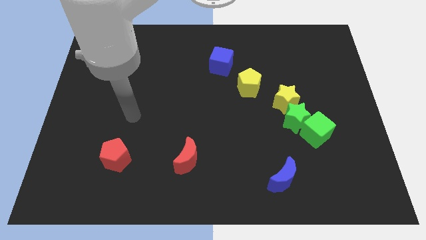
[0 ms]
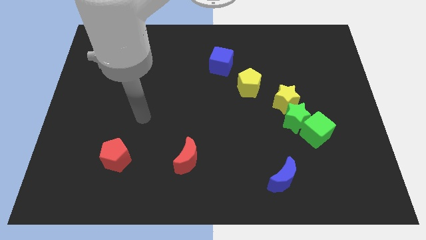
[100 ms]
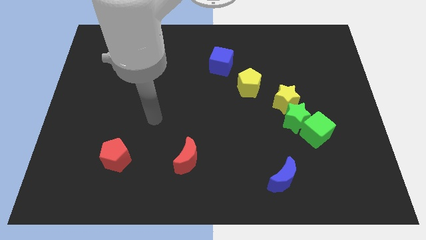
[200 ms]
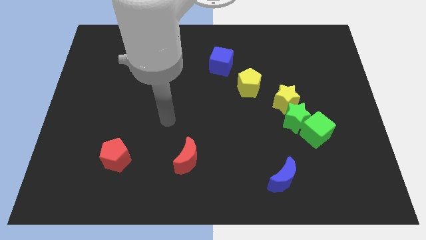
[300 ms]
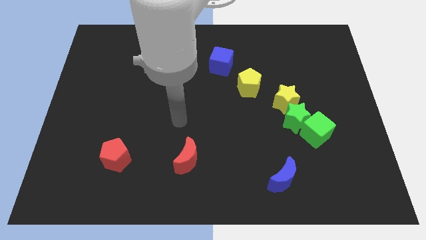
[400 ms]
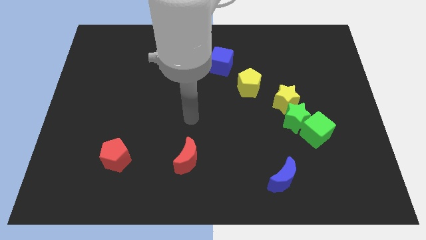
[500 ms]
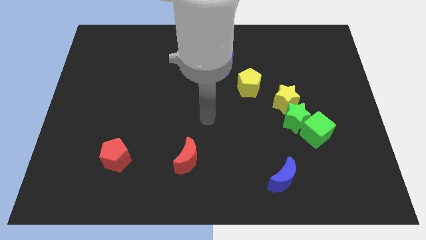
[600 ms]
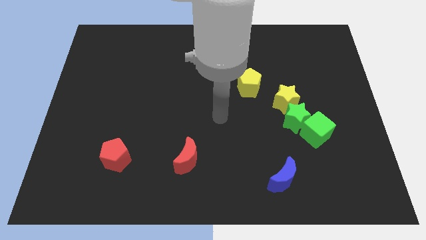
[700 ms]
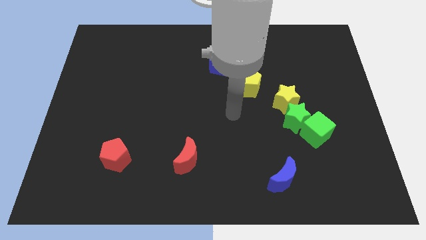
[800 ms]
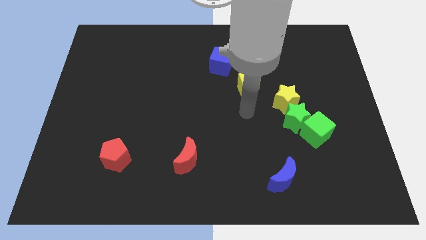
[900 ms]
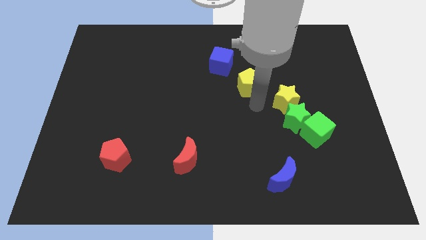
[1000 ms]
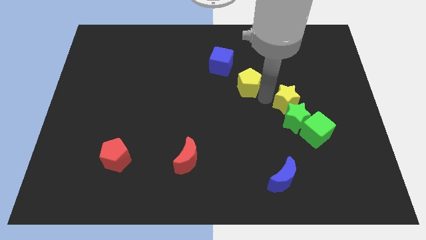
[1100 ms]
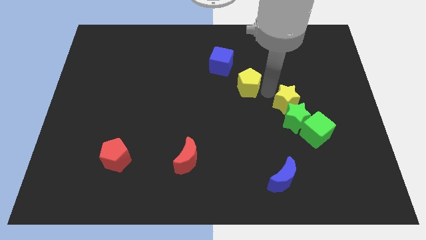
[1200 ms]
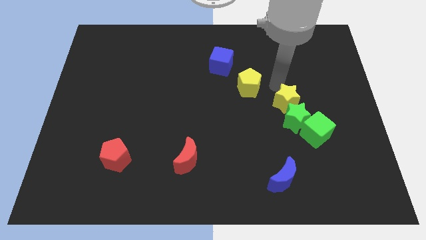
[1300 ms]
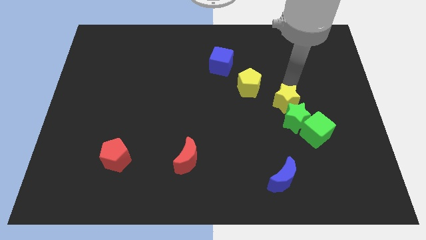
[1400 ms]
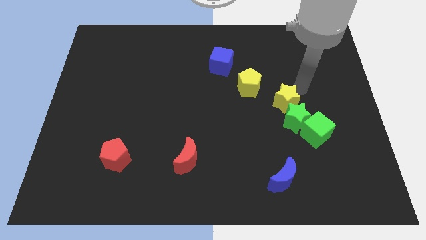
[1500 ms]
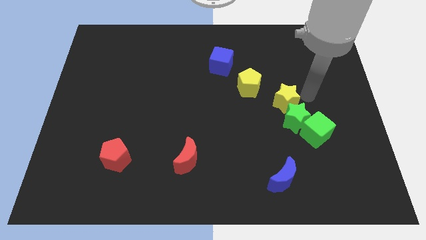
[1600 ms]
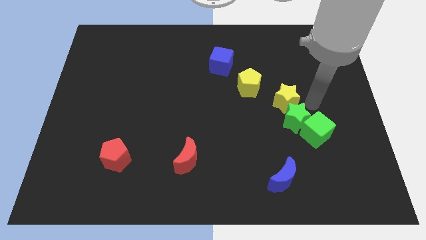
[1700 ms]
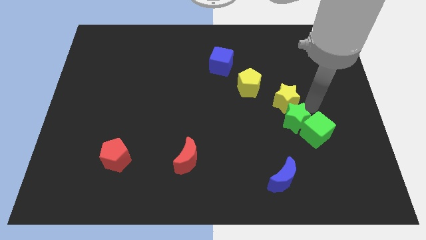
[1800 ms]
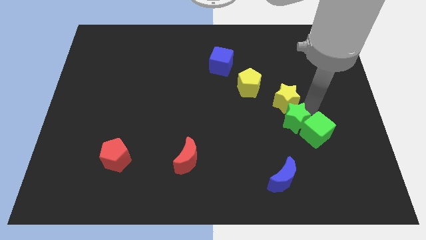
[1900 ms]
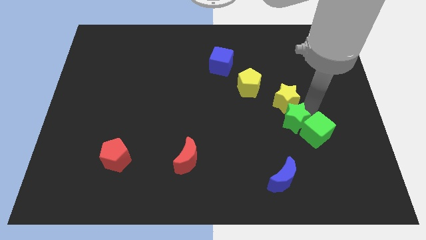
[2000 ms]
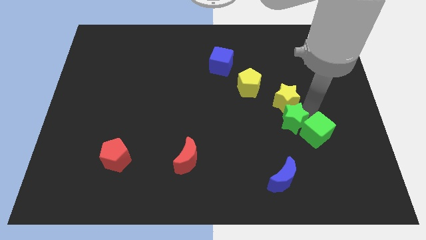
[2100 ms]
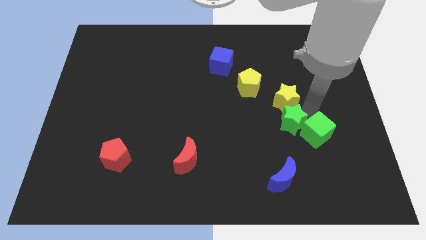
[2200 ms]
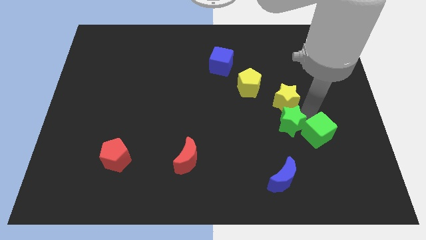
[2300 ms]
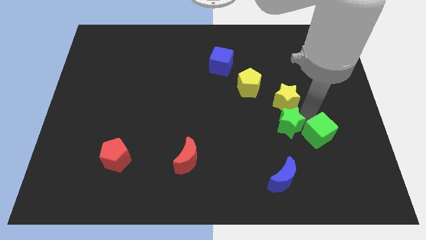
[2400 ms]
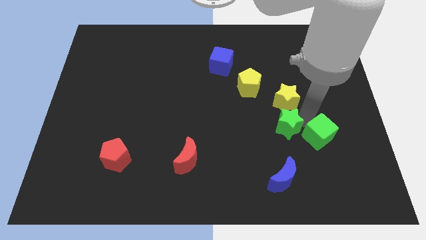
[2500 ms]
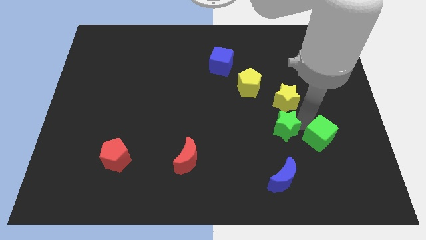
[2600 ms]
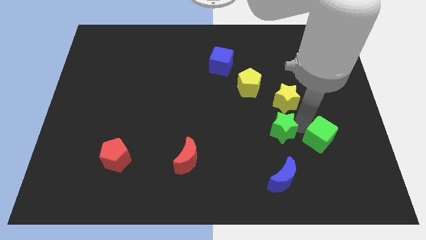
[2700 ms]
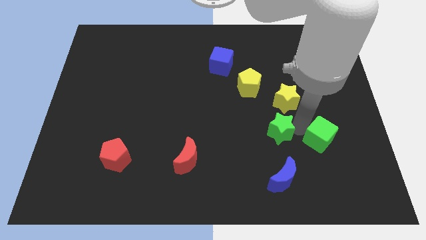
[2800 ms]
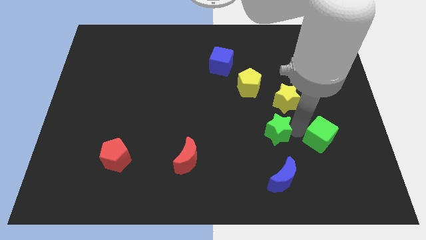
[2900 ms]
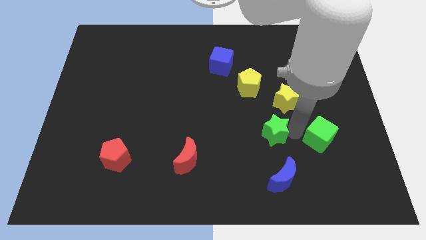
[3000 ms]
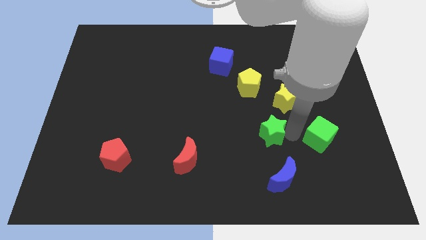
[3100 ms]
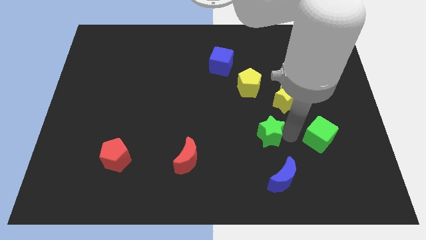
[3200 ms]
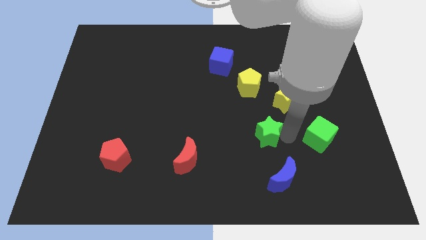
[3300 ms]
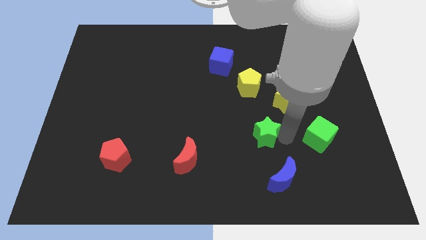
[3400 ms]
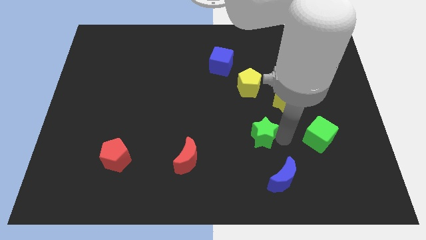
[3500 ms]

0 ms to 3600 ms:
move the green star away from the green cube and yellow star

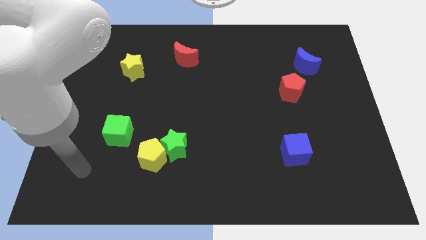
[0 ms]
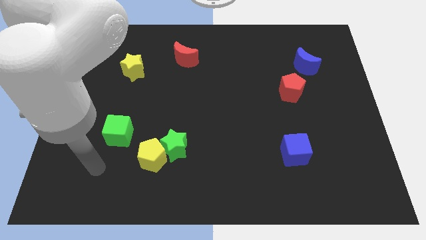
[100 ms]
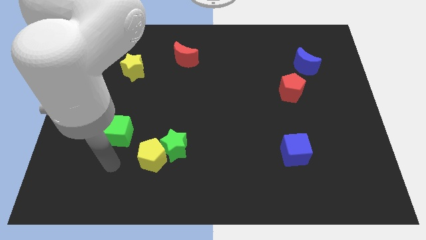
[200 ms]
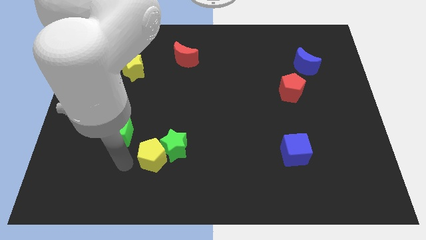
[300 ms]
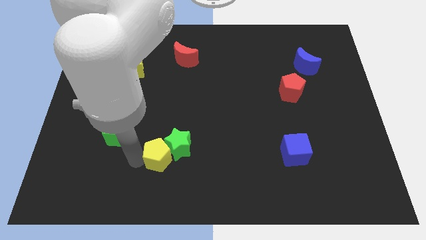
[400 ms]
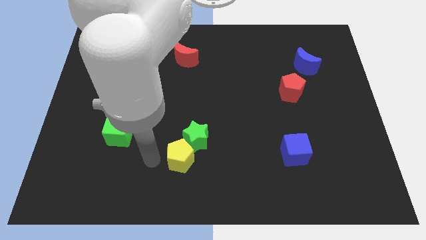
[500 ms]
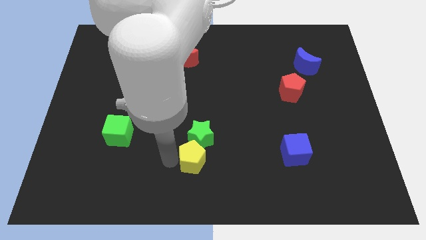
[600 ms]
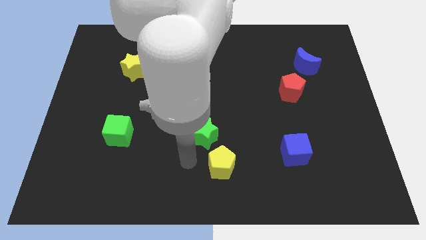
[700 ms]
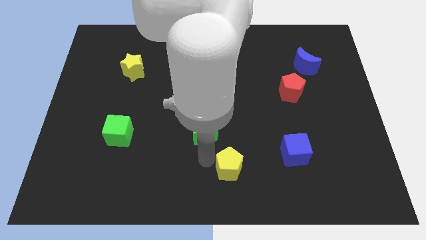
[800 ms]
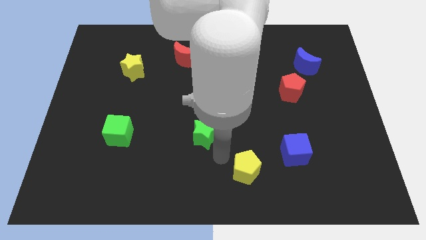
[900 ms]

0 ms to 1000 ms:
separate the green star from the yellow pentagon

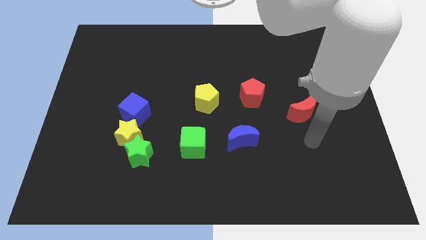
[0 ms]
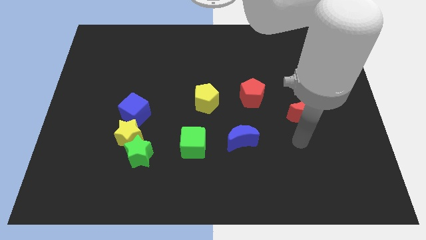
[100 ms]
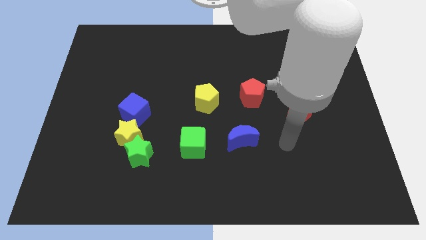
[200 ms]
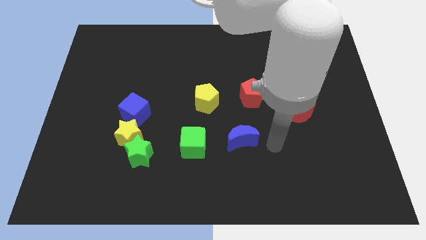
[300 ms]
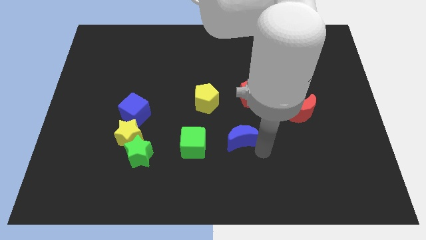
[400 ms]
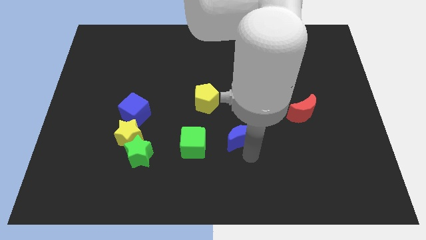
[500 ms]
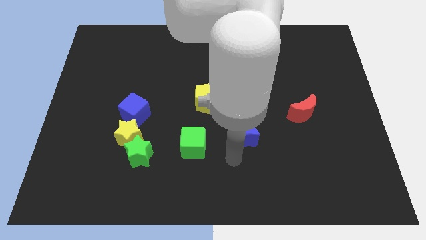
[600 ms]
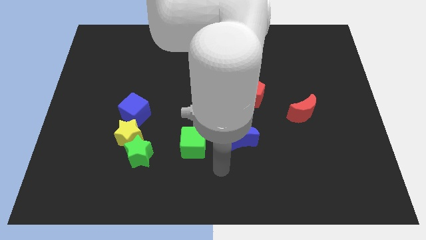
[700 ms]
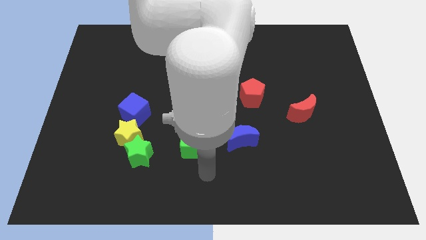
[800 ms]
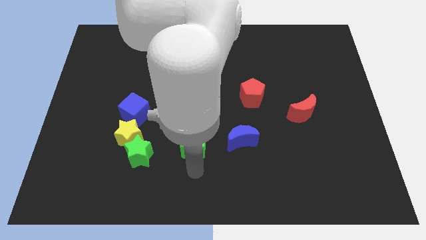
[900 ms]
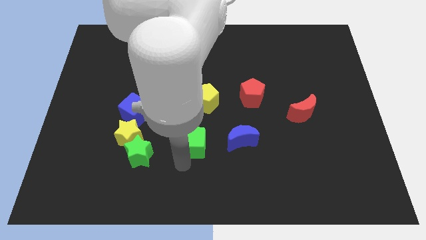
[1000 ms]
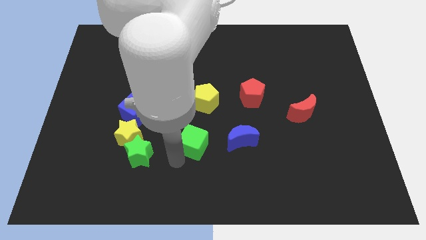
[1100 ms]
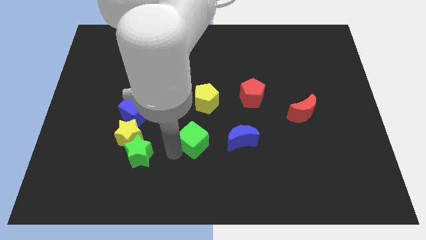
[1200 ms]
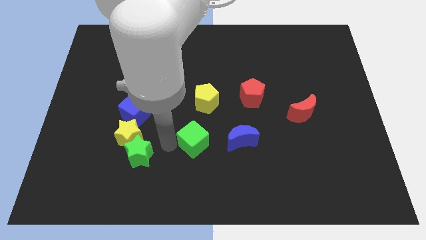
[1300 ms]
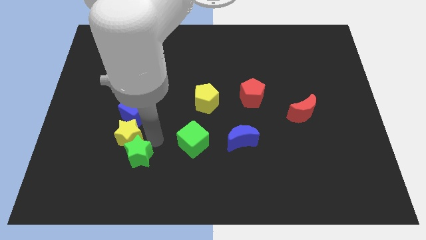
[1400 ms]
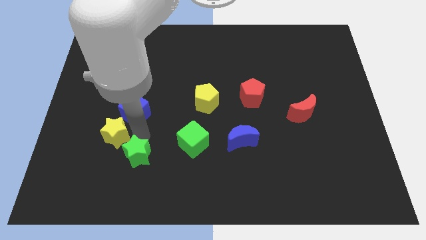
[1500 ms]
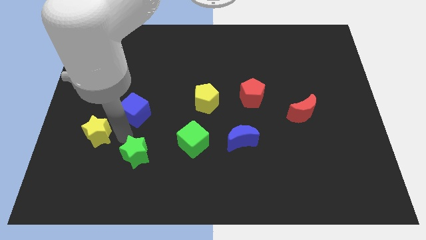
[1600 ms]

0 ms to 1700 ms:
separate the green star from the yellow star

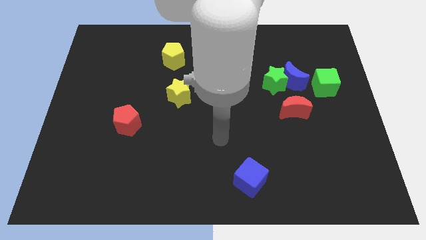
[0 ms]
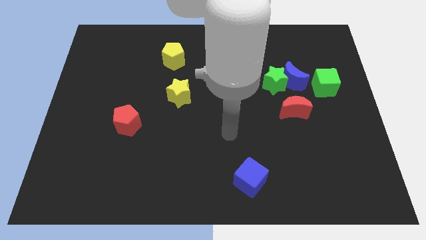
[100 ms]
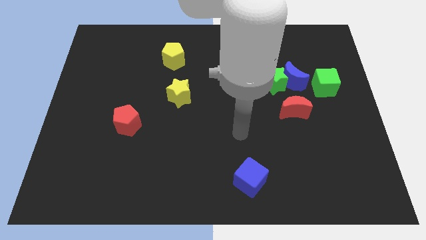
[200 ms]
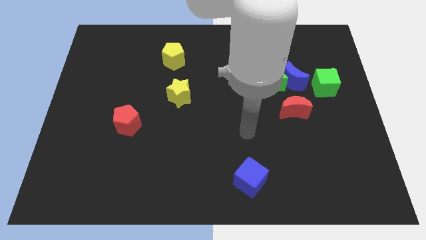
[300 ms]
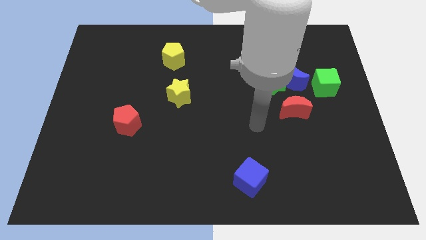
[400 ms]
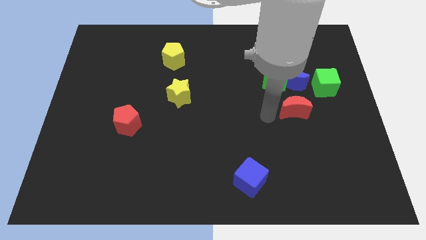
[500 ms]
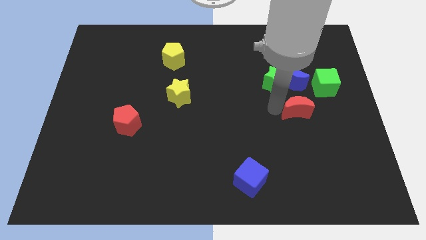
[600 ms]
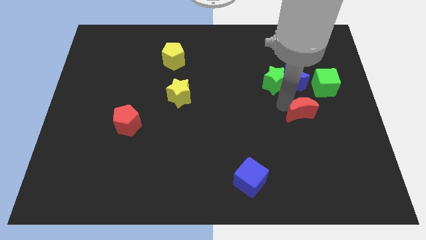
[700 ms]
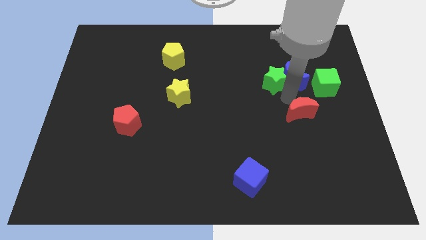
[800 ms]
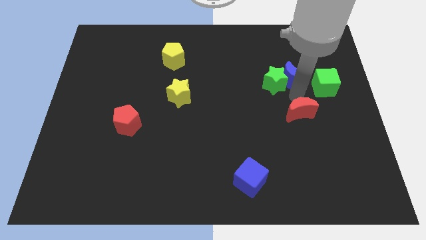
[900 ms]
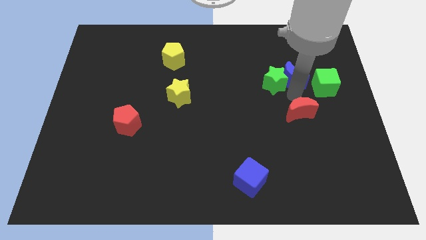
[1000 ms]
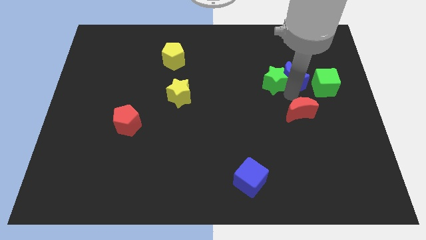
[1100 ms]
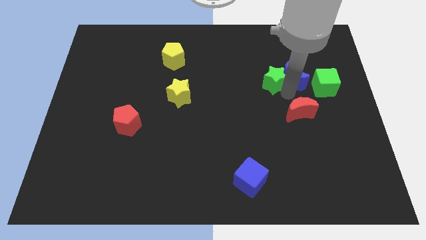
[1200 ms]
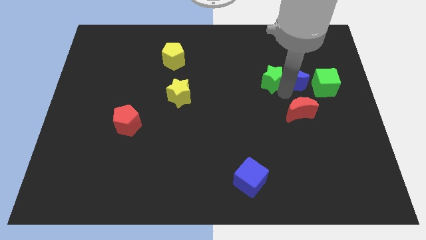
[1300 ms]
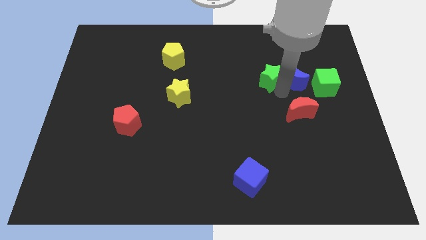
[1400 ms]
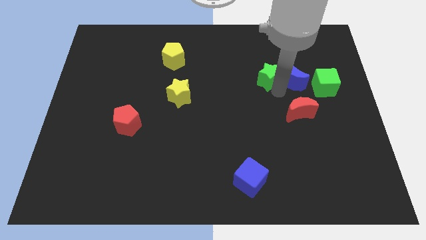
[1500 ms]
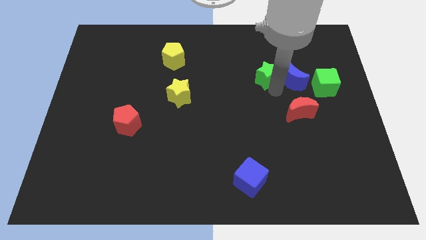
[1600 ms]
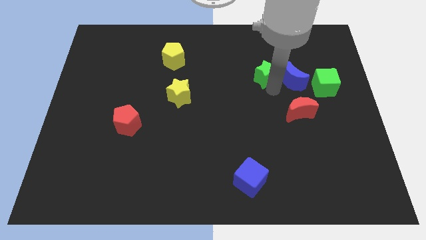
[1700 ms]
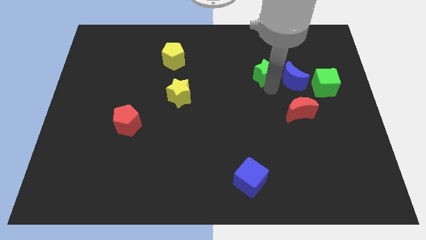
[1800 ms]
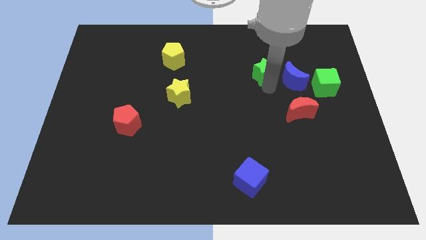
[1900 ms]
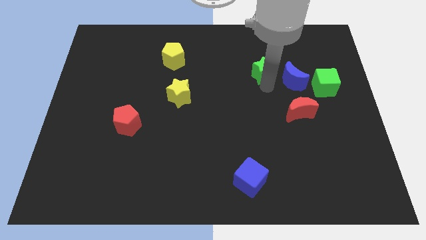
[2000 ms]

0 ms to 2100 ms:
pull the green star apart from the blue moon and red moon

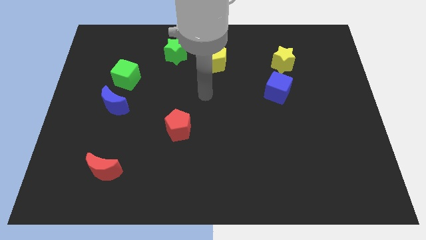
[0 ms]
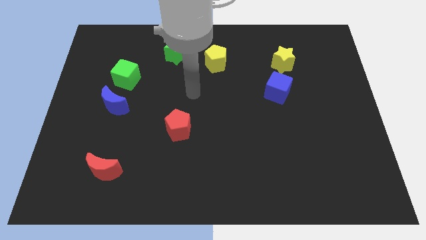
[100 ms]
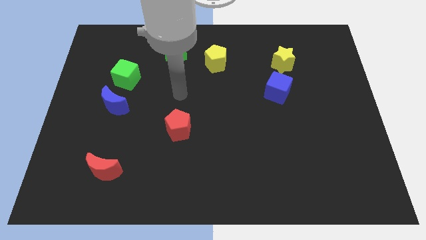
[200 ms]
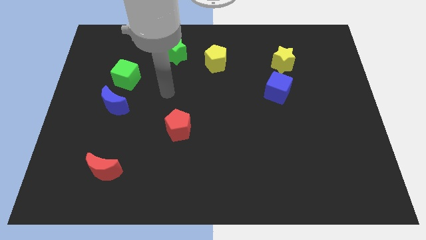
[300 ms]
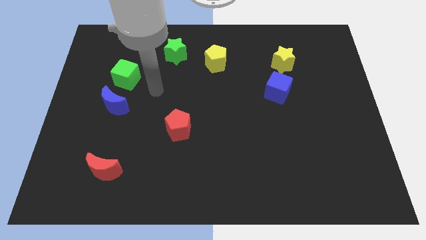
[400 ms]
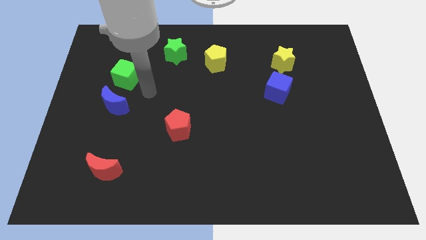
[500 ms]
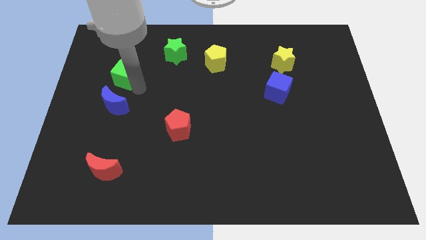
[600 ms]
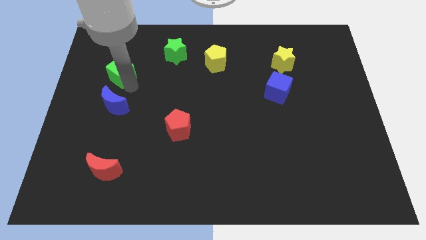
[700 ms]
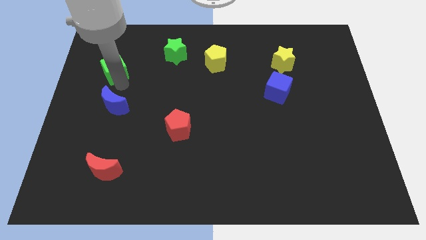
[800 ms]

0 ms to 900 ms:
pull the blue moon apart from the green cube
